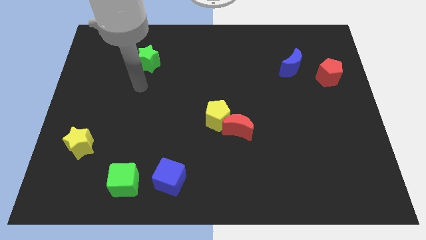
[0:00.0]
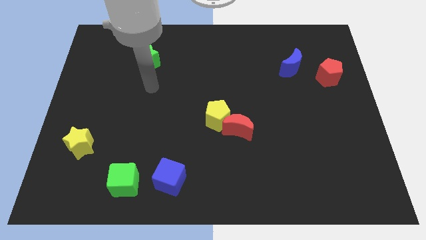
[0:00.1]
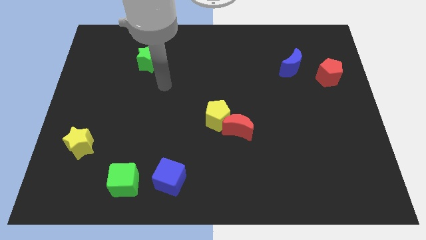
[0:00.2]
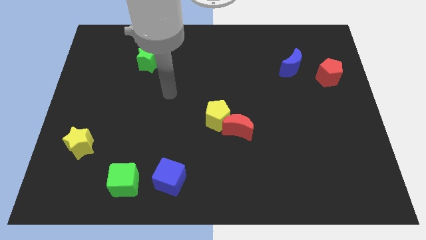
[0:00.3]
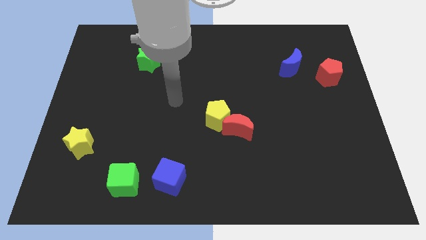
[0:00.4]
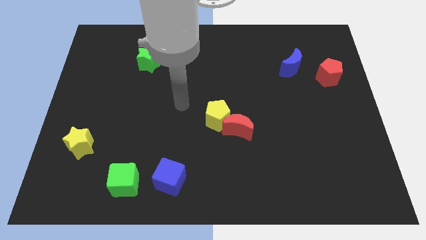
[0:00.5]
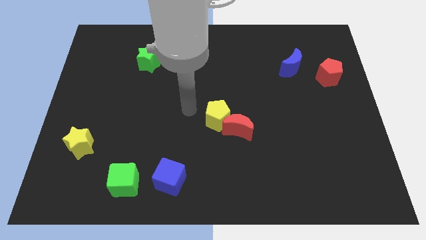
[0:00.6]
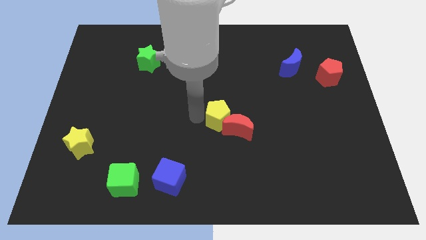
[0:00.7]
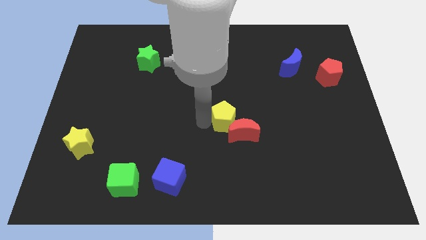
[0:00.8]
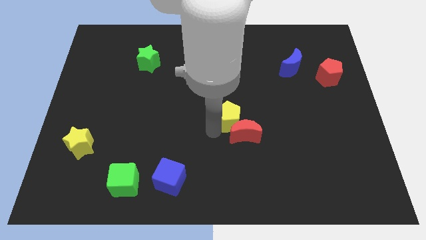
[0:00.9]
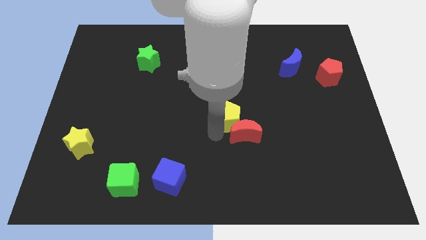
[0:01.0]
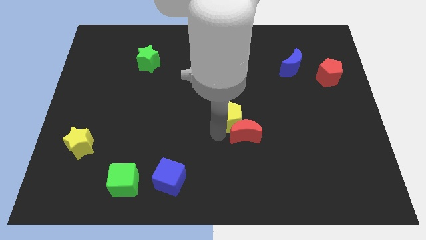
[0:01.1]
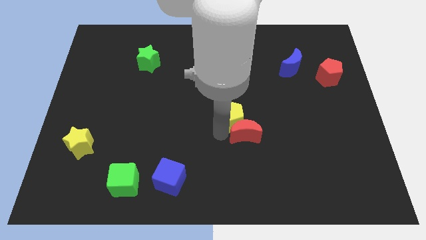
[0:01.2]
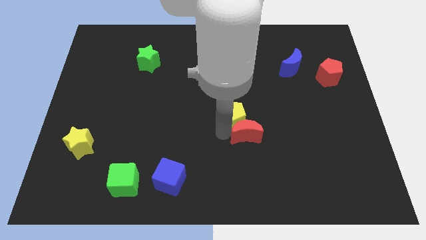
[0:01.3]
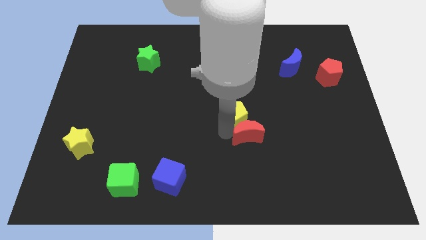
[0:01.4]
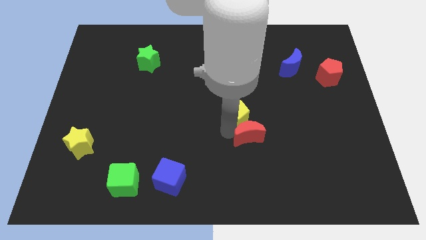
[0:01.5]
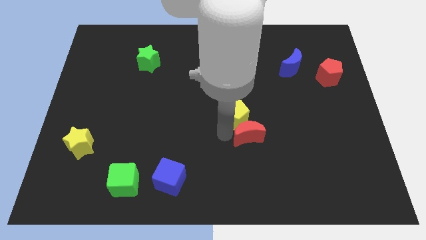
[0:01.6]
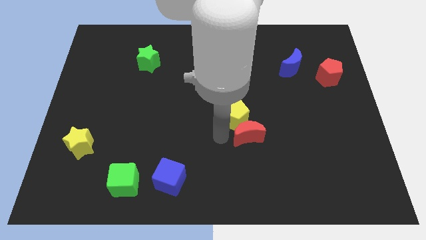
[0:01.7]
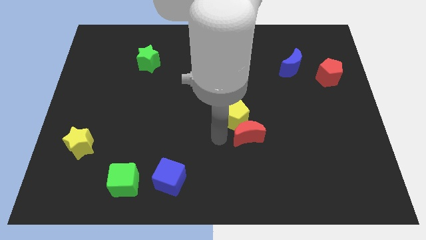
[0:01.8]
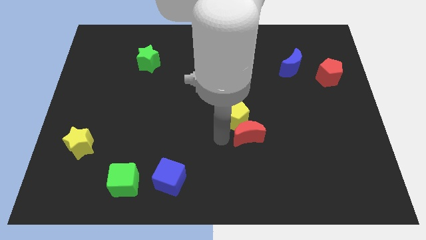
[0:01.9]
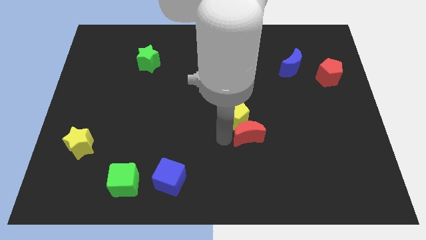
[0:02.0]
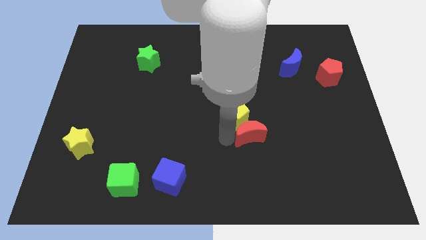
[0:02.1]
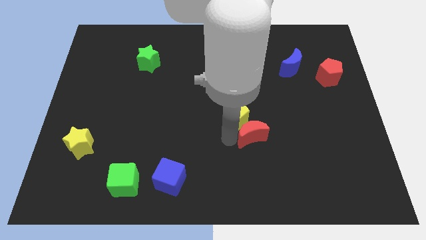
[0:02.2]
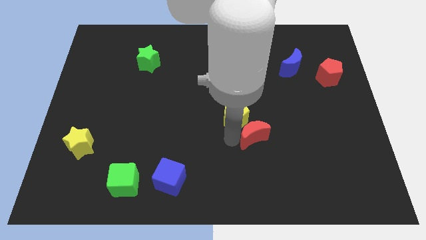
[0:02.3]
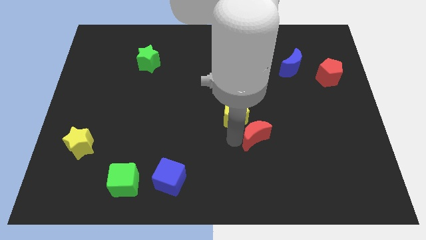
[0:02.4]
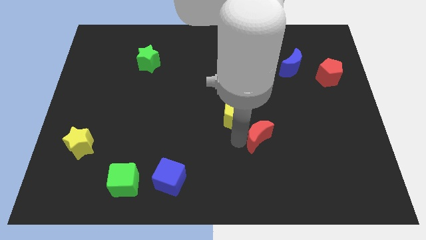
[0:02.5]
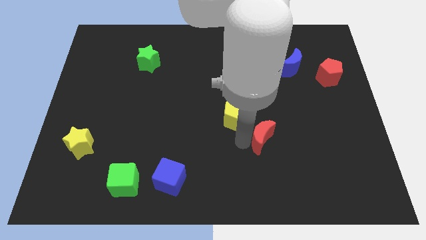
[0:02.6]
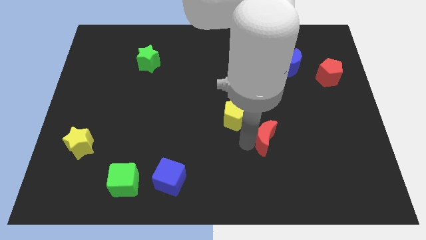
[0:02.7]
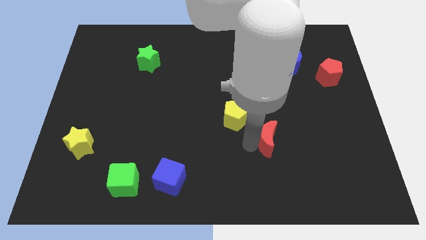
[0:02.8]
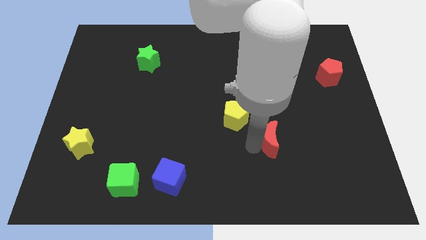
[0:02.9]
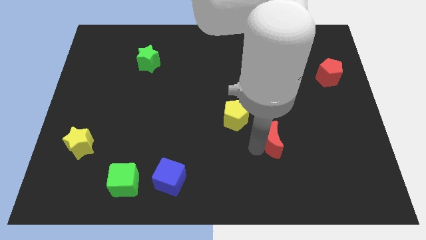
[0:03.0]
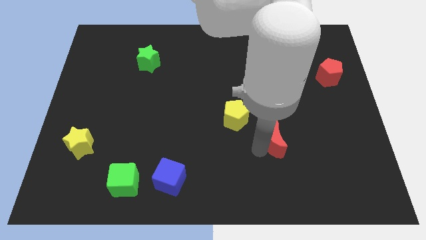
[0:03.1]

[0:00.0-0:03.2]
push the red moon right a bit

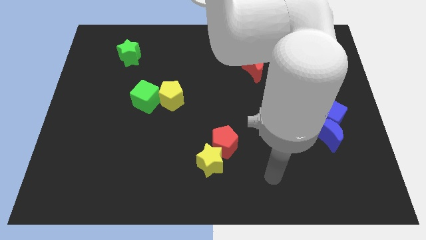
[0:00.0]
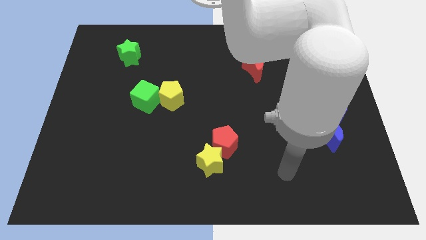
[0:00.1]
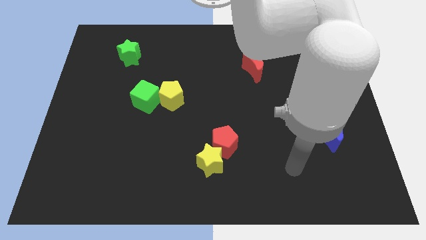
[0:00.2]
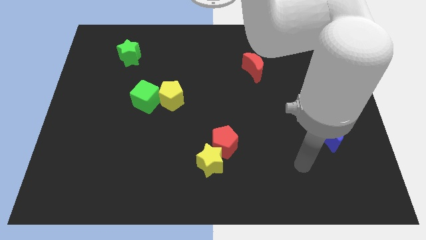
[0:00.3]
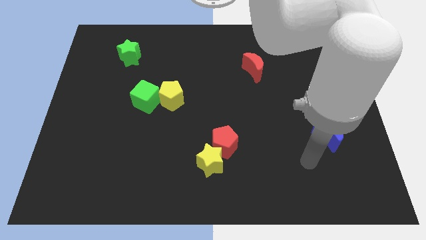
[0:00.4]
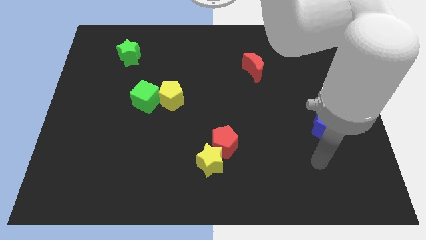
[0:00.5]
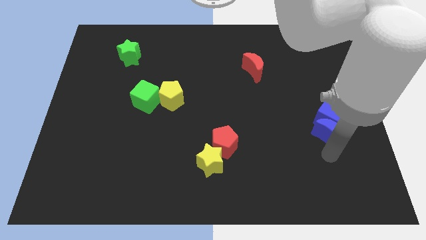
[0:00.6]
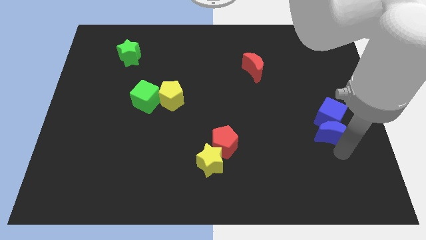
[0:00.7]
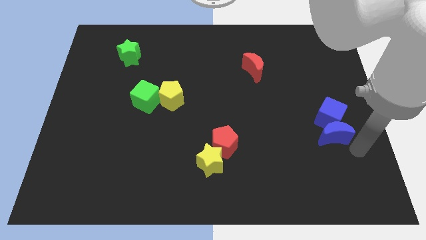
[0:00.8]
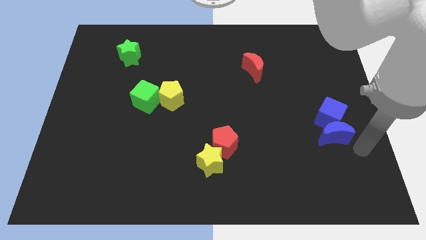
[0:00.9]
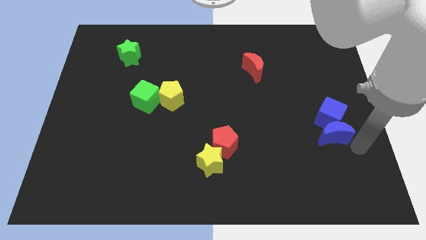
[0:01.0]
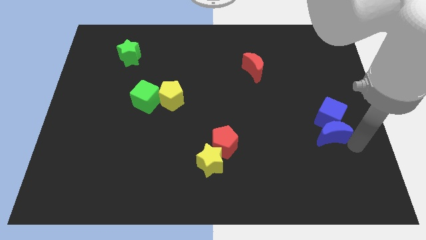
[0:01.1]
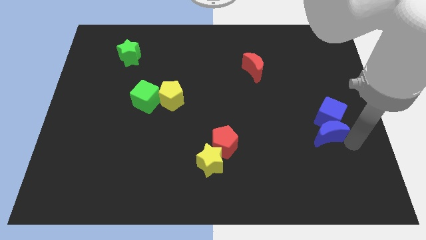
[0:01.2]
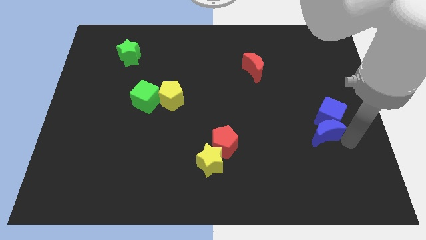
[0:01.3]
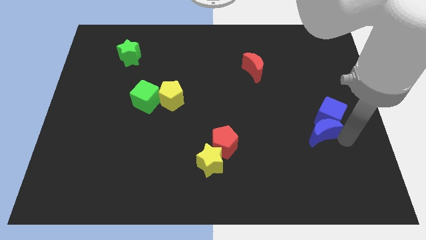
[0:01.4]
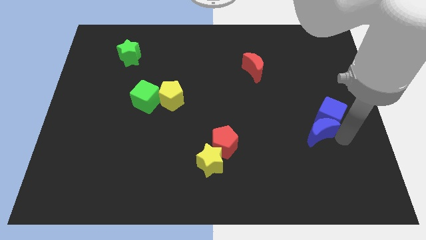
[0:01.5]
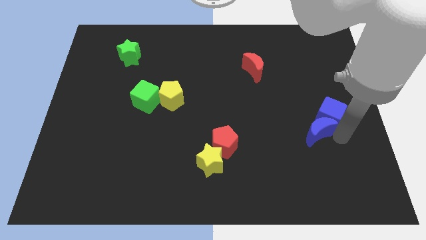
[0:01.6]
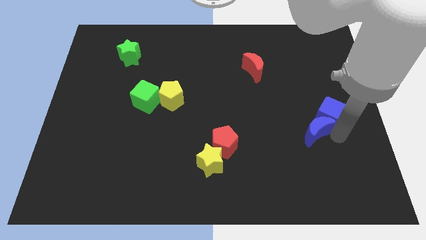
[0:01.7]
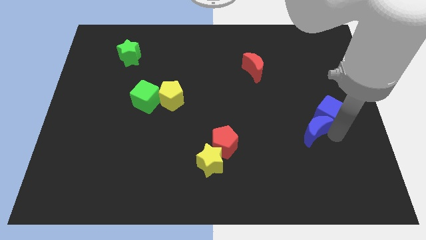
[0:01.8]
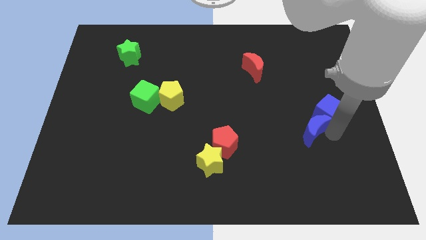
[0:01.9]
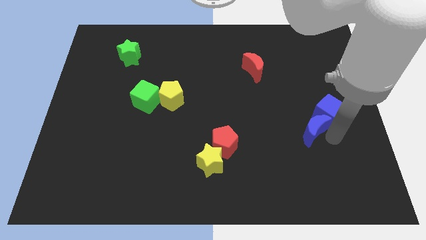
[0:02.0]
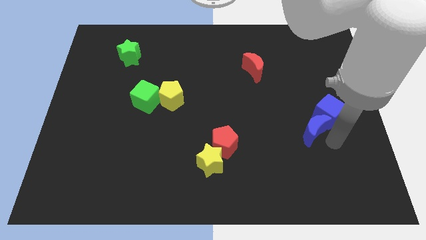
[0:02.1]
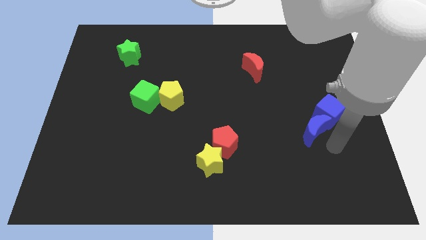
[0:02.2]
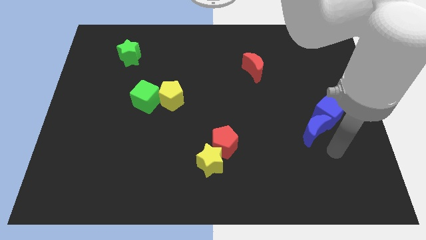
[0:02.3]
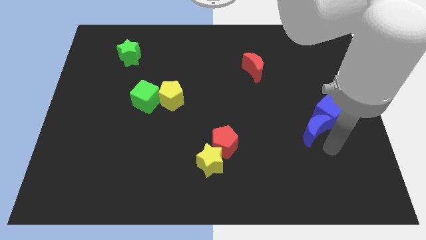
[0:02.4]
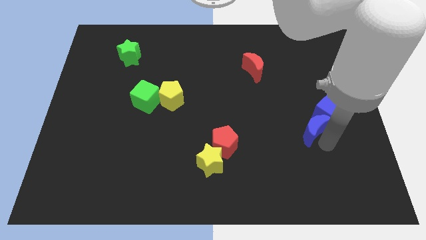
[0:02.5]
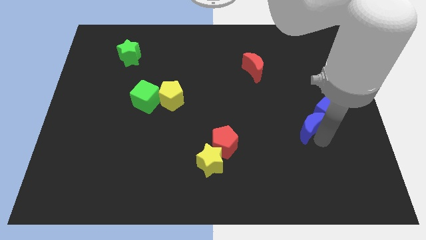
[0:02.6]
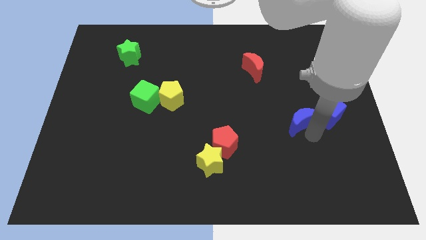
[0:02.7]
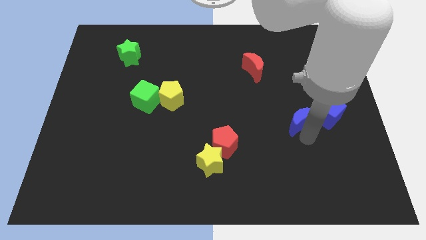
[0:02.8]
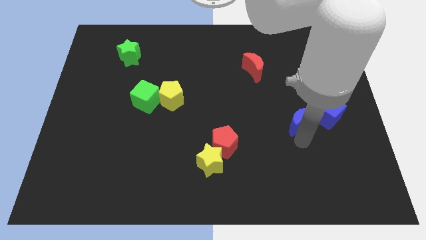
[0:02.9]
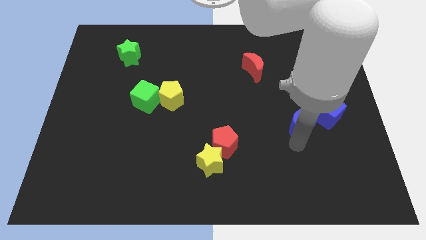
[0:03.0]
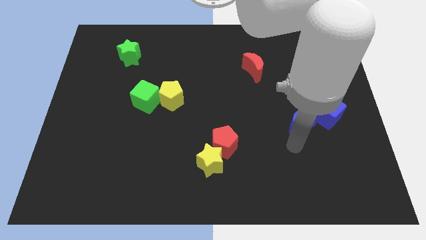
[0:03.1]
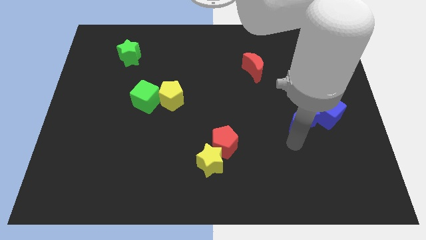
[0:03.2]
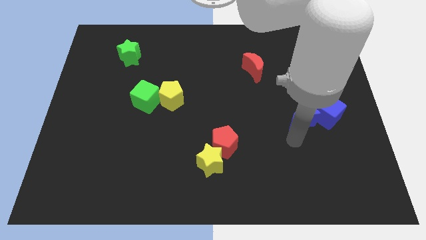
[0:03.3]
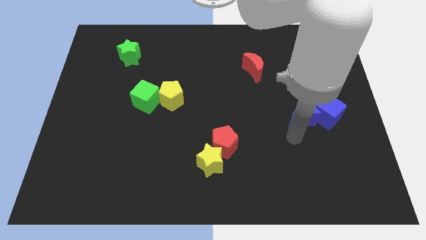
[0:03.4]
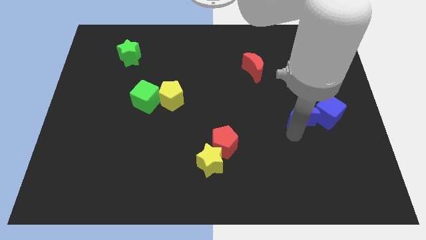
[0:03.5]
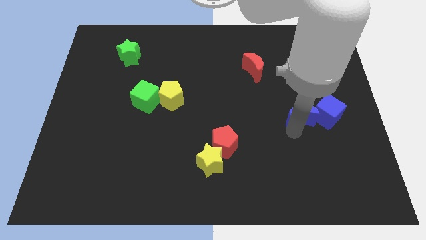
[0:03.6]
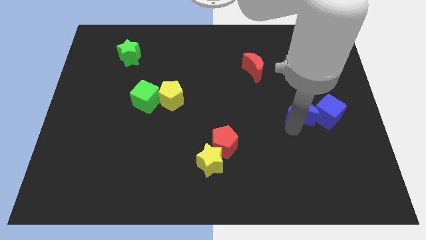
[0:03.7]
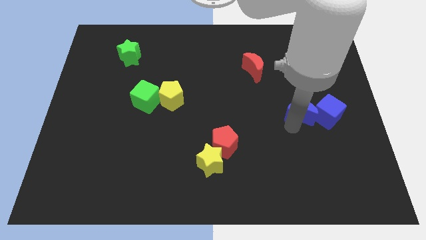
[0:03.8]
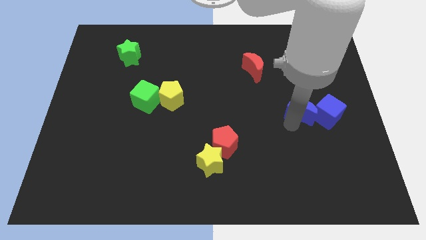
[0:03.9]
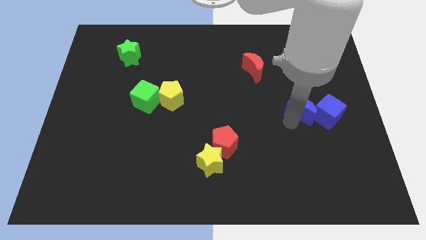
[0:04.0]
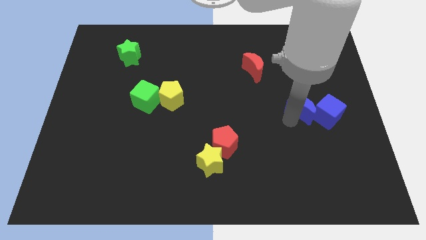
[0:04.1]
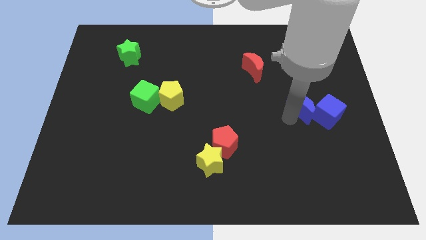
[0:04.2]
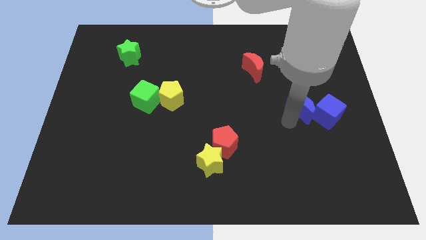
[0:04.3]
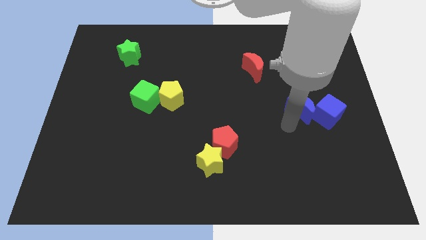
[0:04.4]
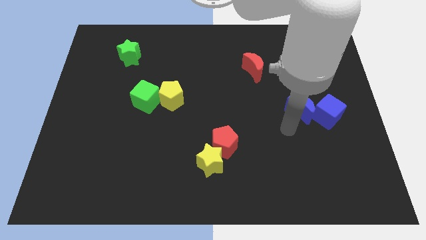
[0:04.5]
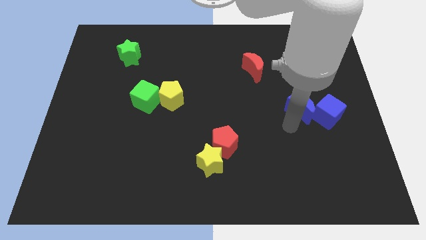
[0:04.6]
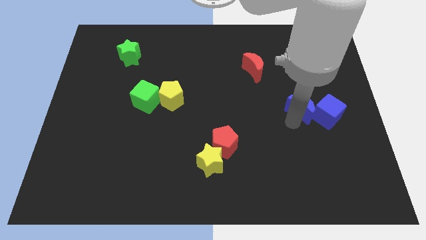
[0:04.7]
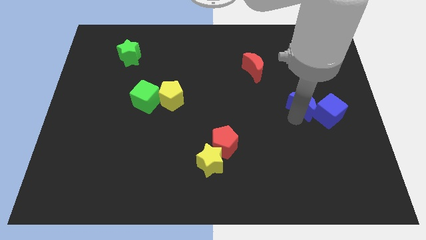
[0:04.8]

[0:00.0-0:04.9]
move the blue moon somewhat up
